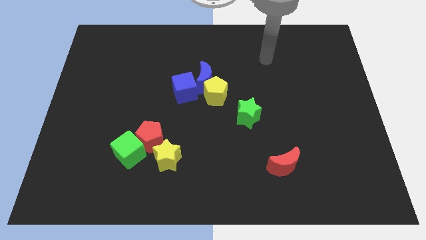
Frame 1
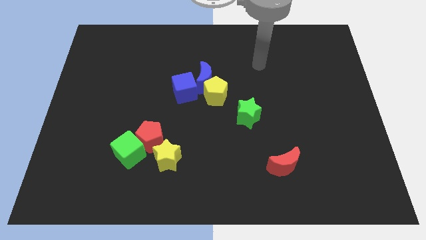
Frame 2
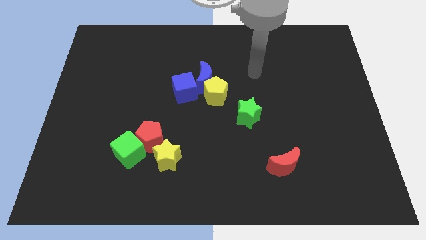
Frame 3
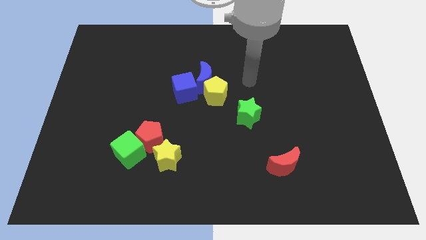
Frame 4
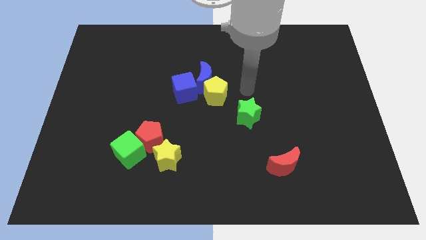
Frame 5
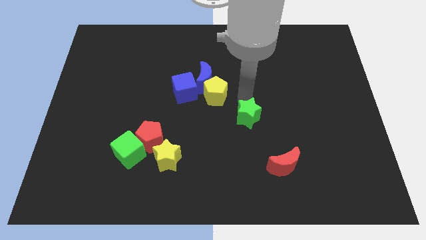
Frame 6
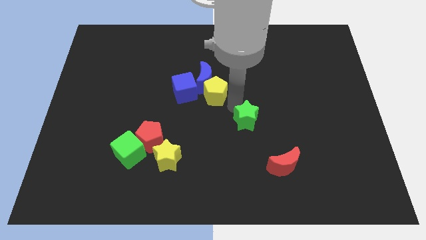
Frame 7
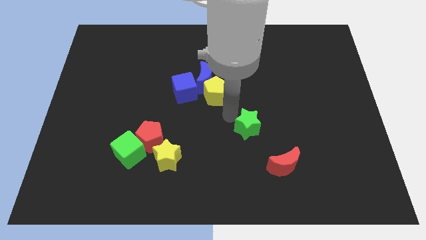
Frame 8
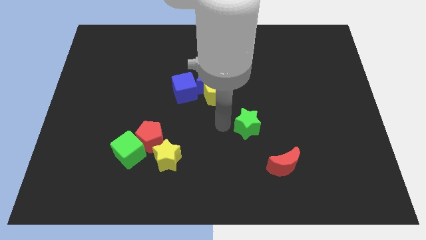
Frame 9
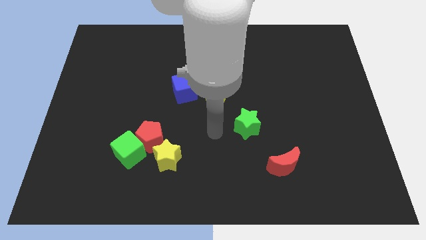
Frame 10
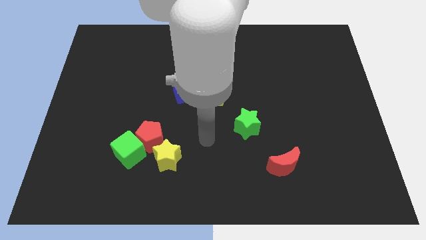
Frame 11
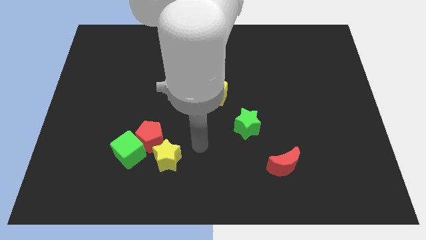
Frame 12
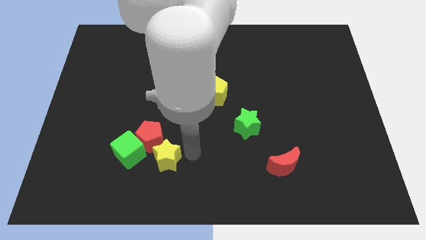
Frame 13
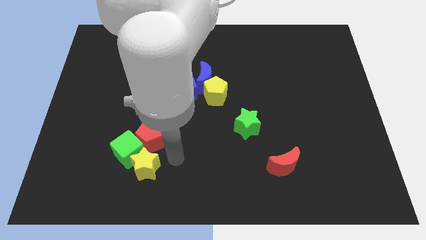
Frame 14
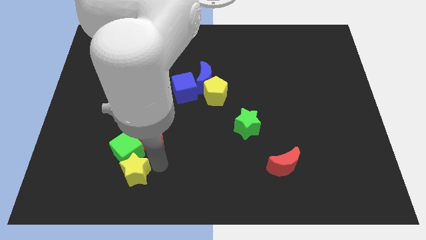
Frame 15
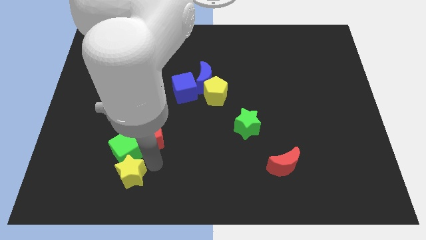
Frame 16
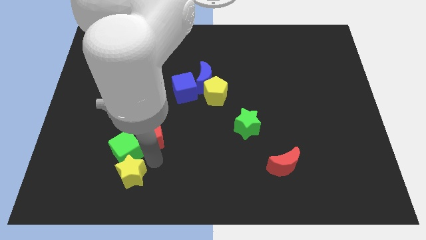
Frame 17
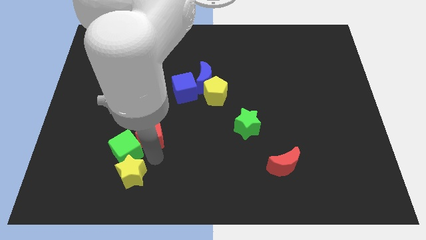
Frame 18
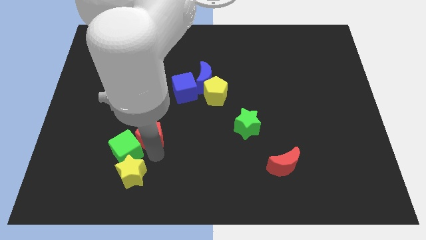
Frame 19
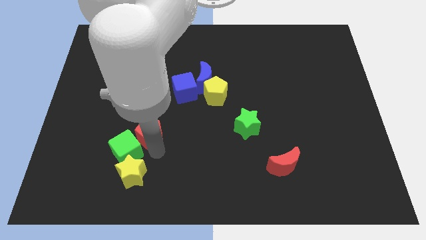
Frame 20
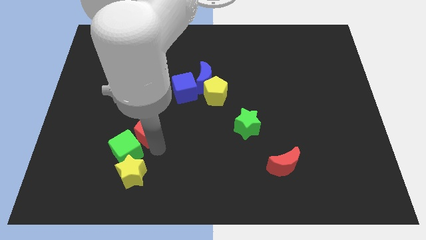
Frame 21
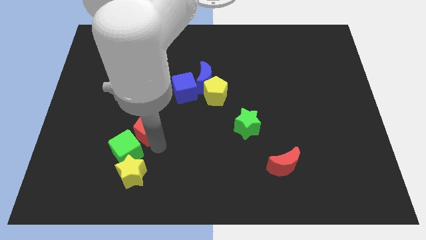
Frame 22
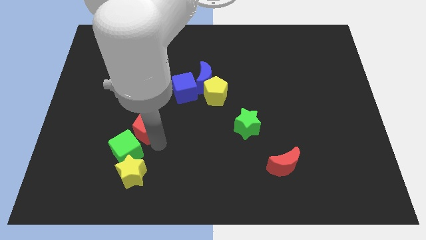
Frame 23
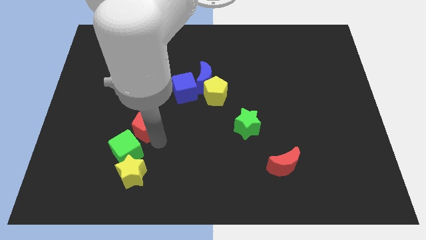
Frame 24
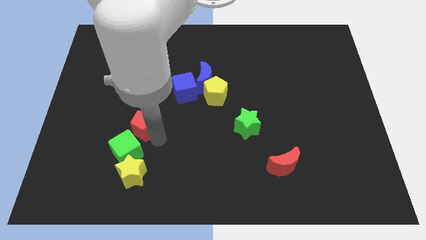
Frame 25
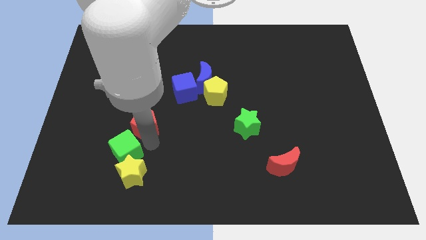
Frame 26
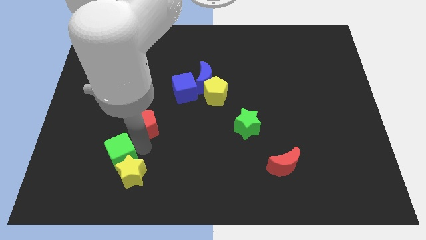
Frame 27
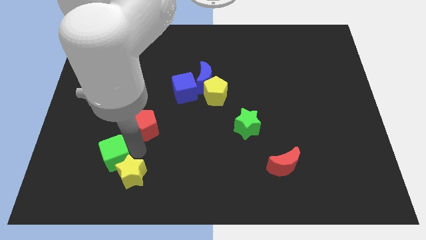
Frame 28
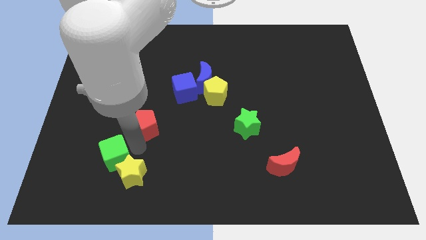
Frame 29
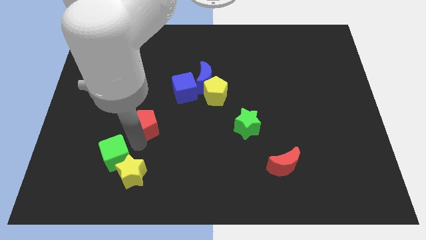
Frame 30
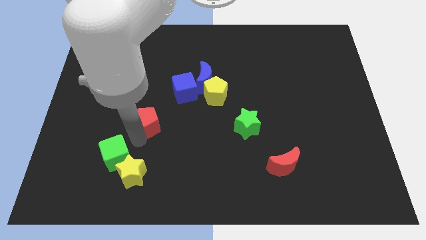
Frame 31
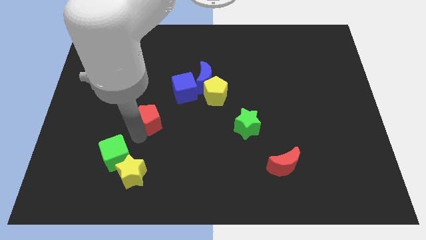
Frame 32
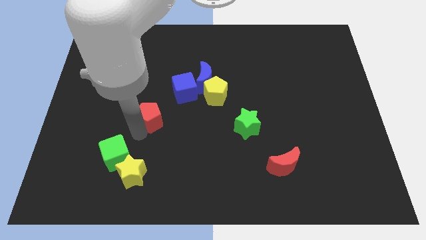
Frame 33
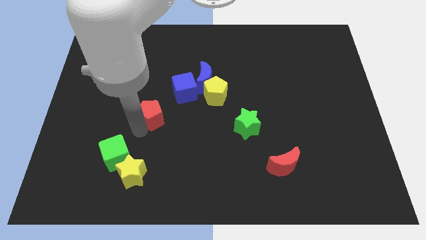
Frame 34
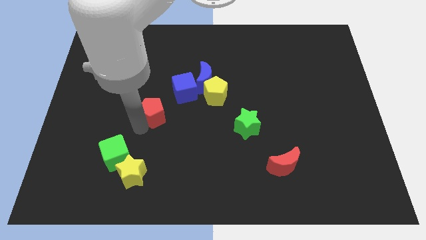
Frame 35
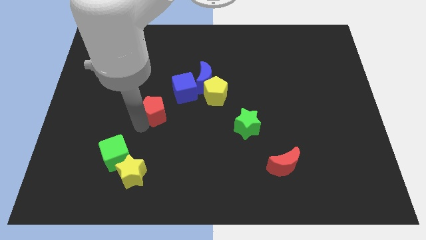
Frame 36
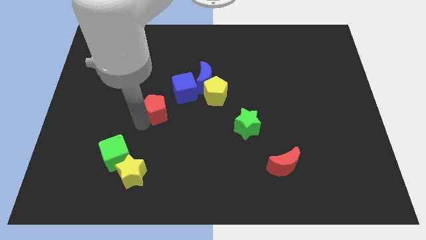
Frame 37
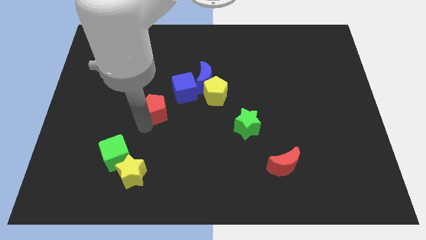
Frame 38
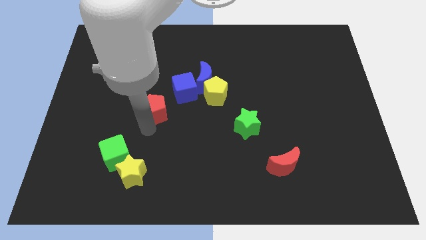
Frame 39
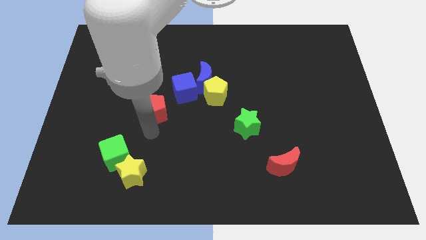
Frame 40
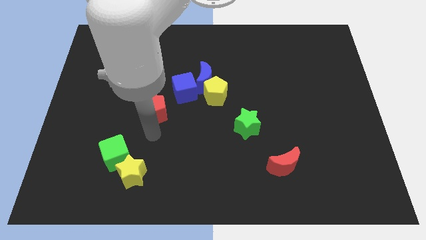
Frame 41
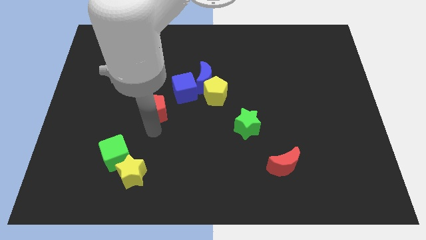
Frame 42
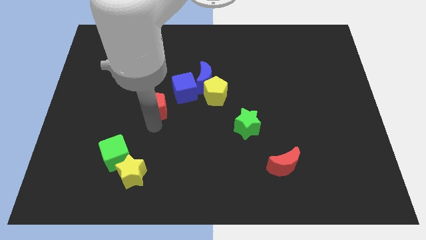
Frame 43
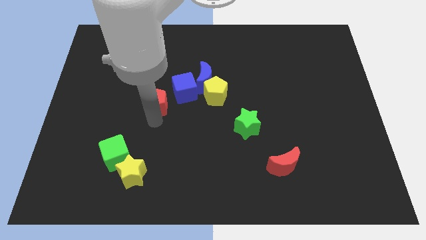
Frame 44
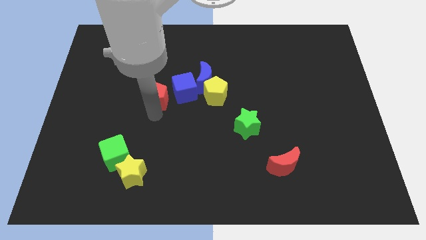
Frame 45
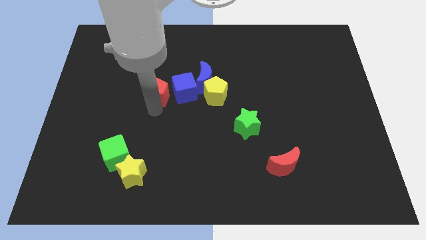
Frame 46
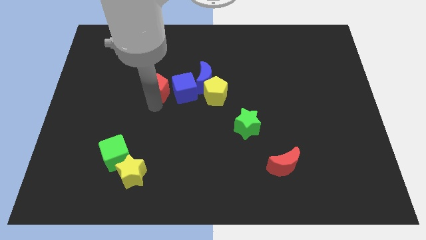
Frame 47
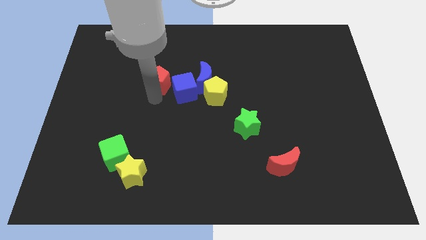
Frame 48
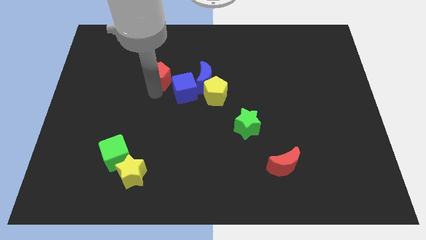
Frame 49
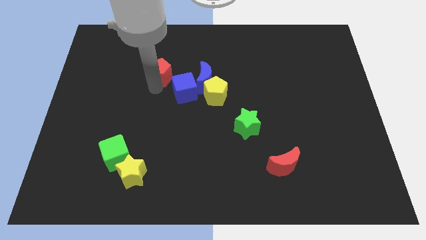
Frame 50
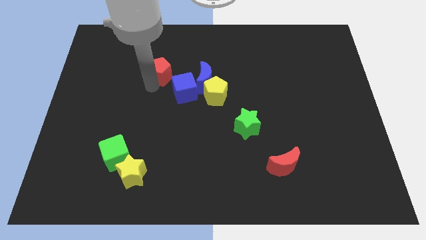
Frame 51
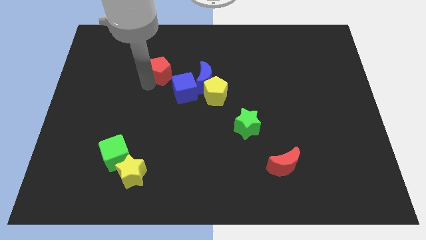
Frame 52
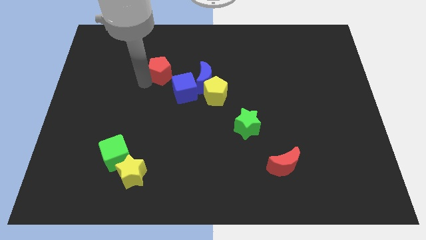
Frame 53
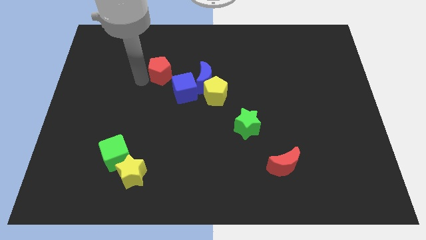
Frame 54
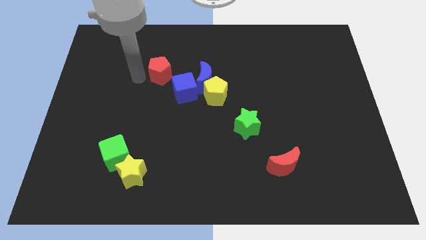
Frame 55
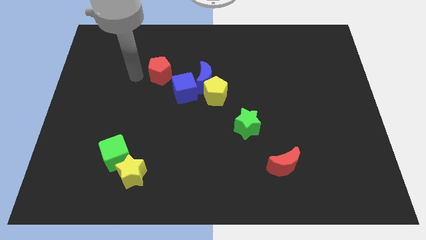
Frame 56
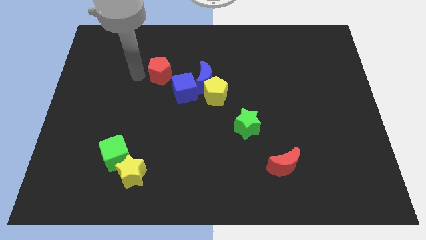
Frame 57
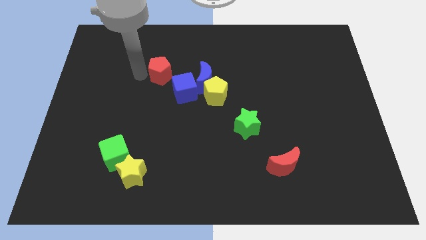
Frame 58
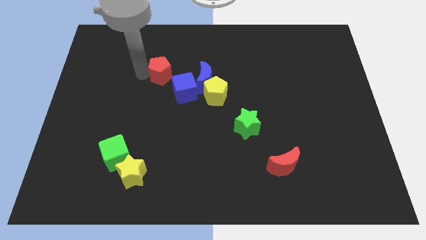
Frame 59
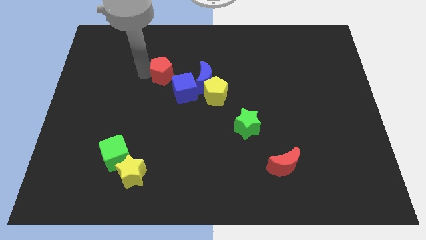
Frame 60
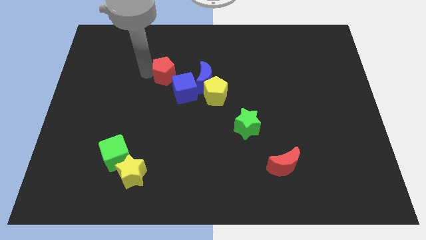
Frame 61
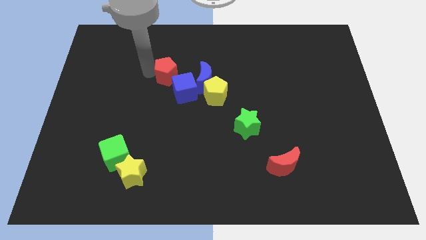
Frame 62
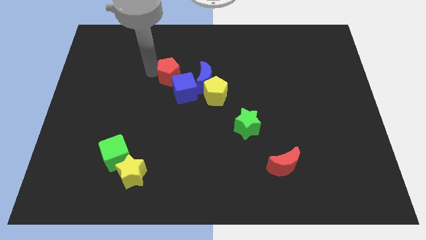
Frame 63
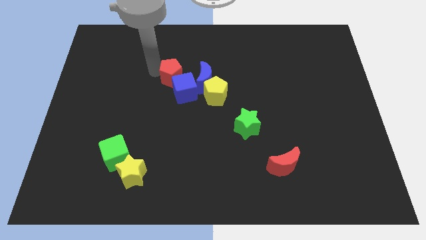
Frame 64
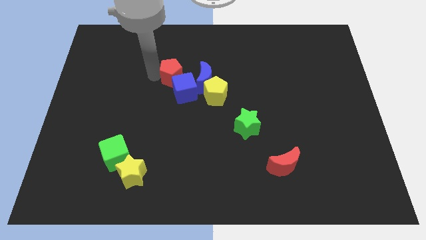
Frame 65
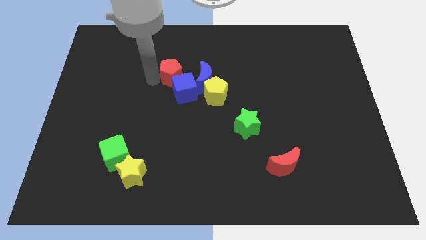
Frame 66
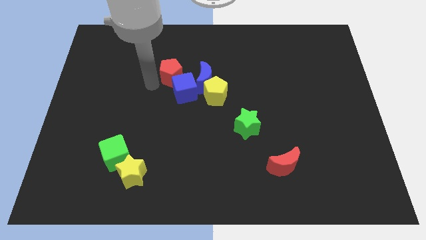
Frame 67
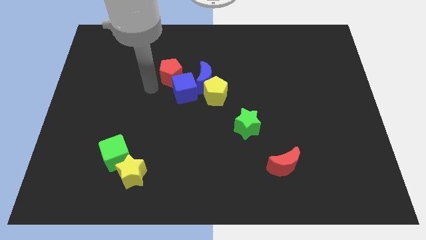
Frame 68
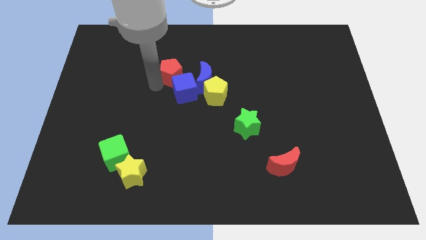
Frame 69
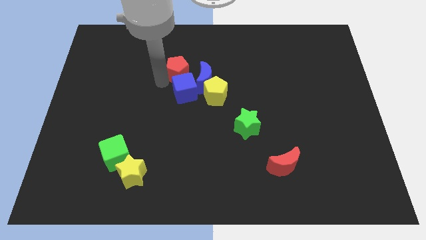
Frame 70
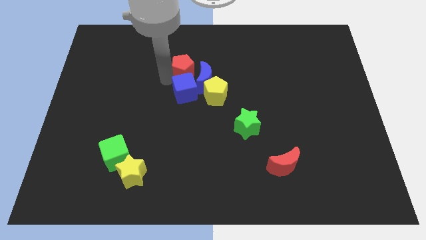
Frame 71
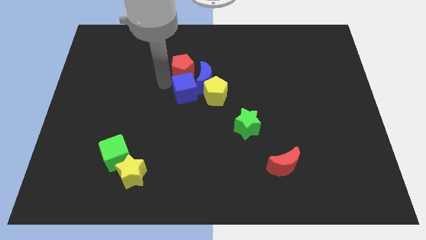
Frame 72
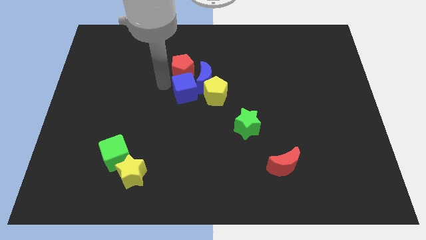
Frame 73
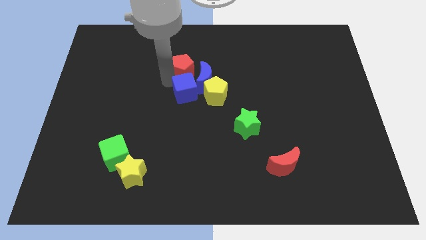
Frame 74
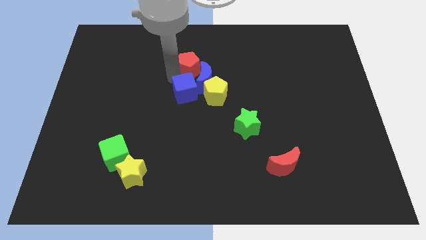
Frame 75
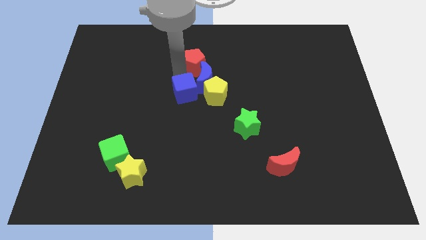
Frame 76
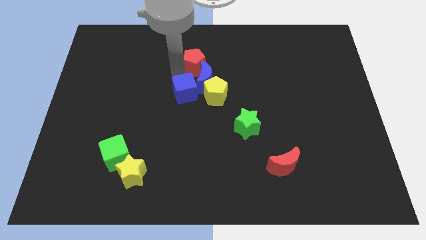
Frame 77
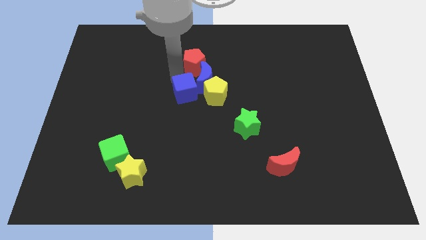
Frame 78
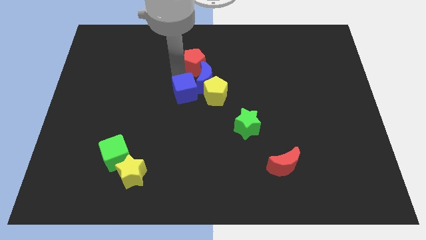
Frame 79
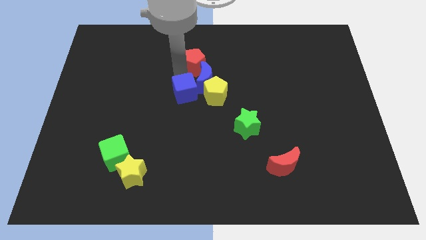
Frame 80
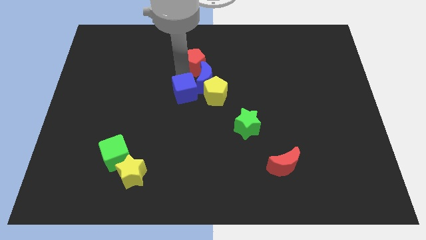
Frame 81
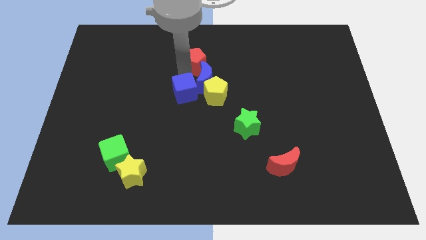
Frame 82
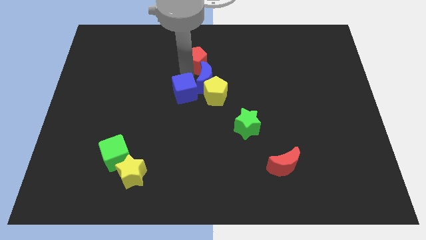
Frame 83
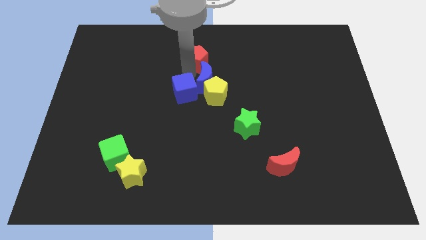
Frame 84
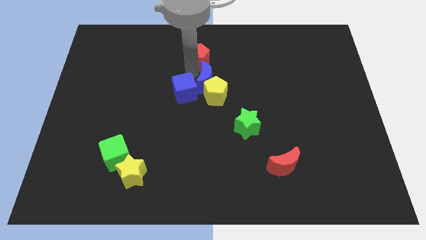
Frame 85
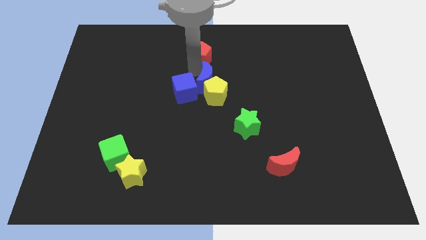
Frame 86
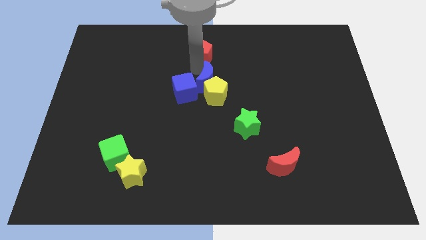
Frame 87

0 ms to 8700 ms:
put the red pentagon to the towards your base

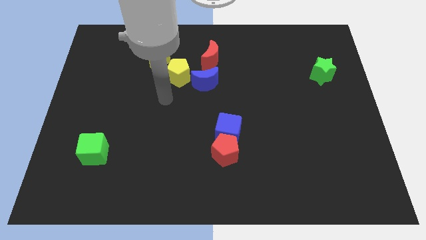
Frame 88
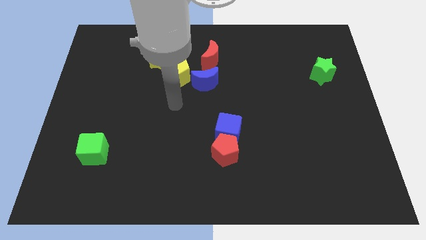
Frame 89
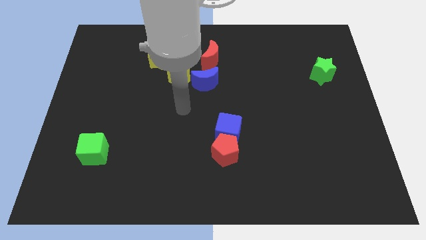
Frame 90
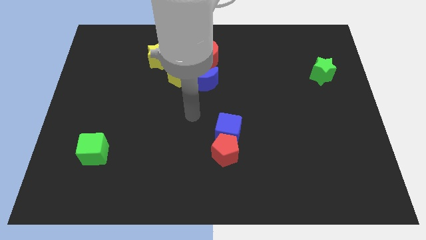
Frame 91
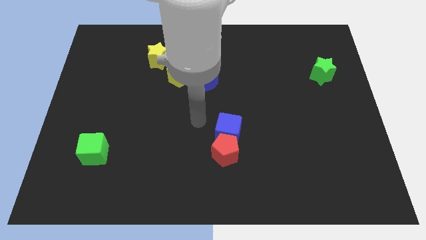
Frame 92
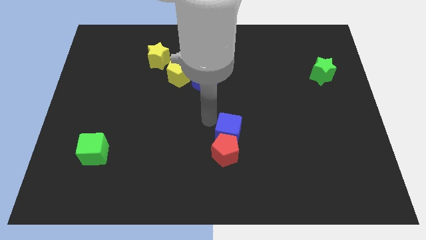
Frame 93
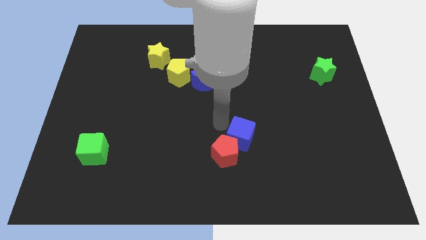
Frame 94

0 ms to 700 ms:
move the red pentagon to the bottom
